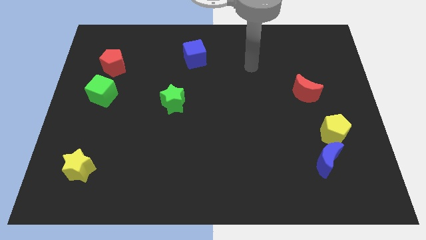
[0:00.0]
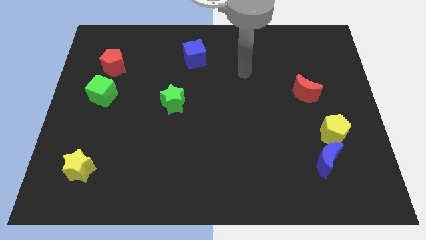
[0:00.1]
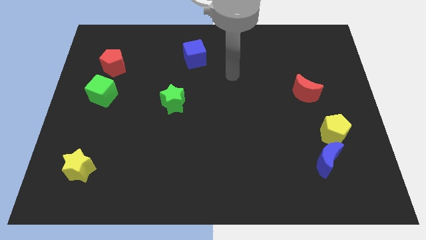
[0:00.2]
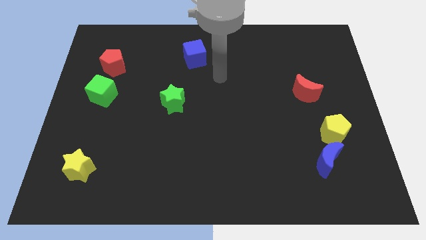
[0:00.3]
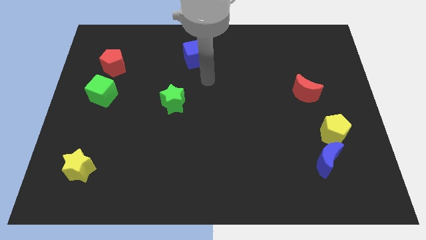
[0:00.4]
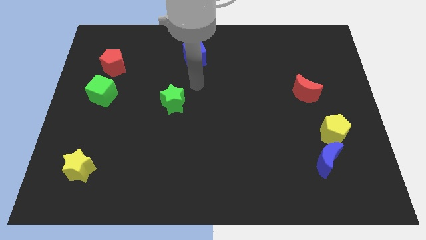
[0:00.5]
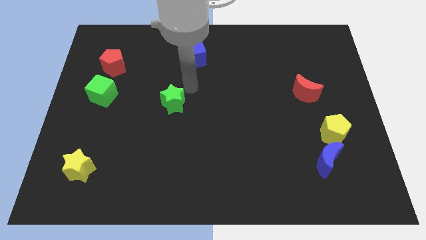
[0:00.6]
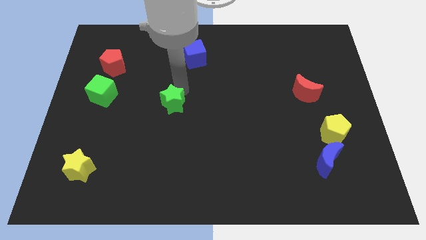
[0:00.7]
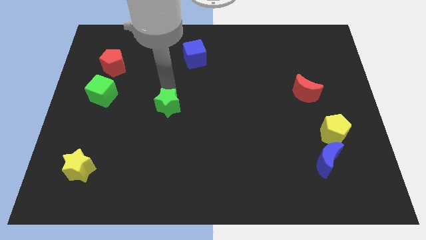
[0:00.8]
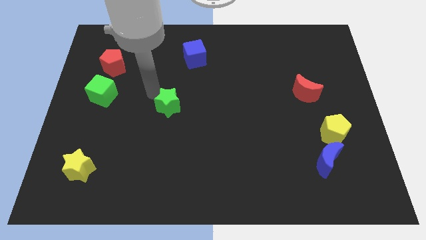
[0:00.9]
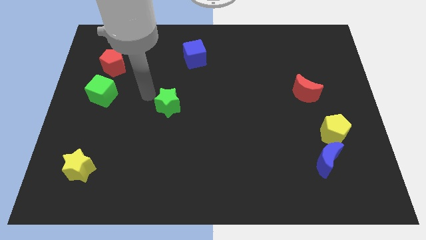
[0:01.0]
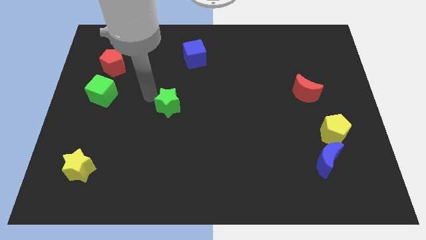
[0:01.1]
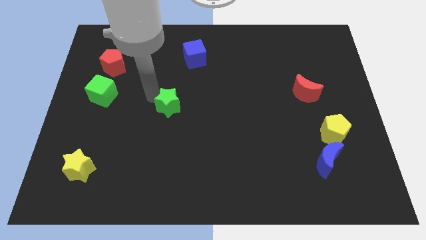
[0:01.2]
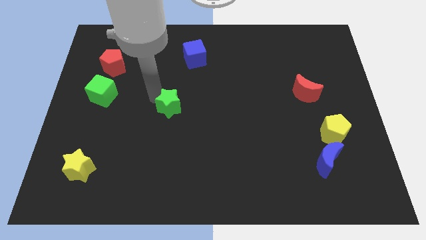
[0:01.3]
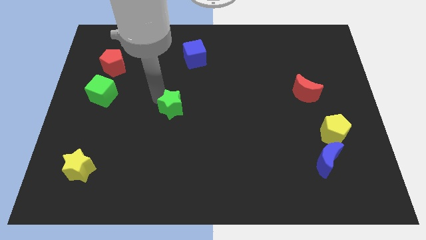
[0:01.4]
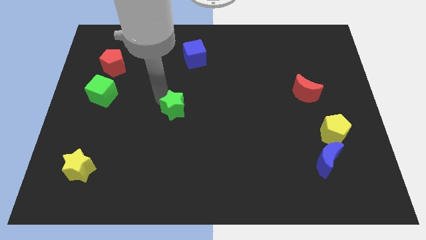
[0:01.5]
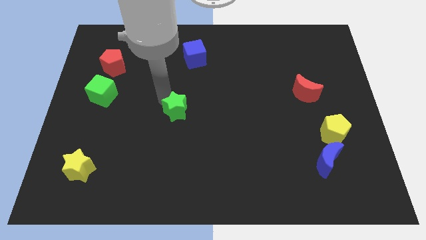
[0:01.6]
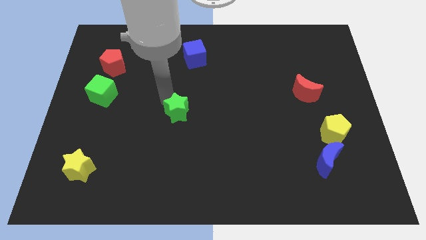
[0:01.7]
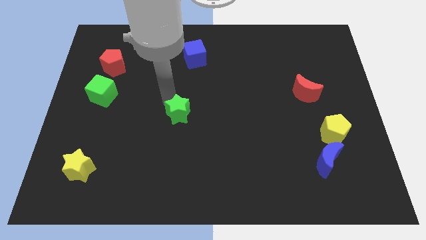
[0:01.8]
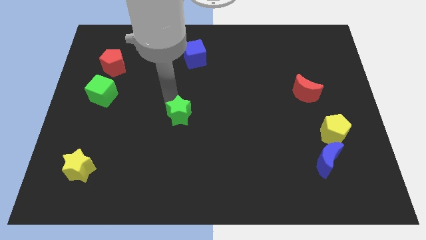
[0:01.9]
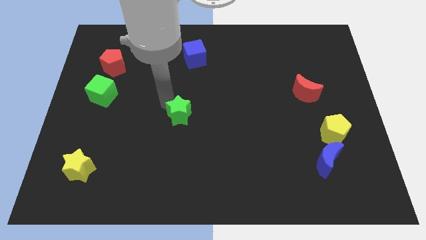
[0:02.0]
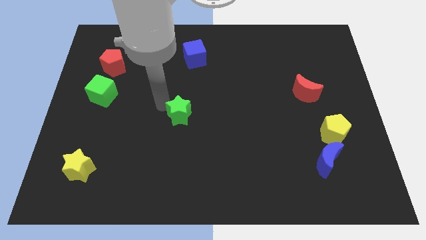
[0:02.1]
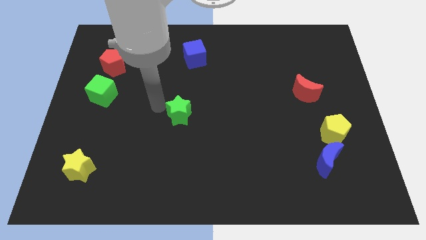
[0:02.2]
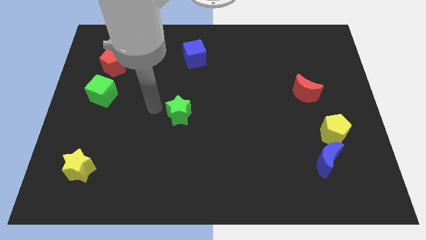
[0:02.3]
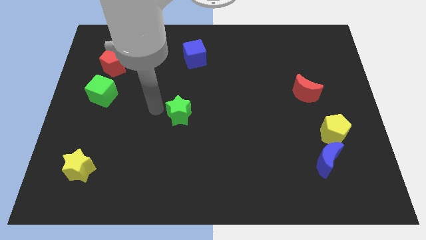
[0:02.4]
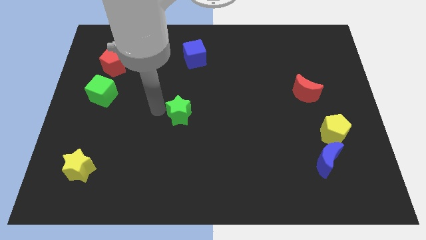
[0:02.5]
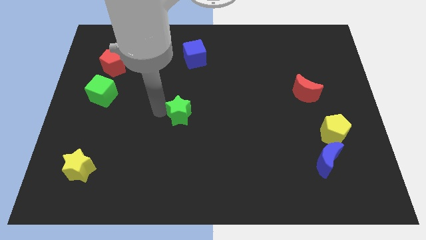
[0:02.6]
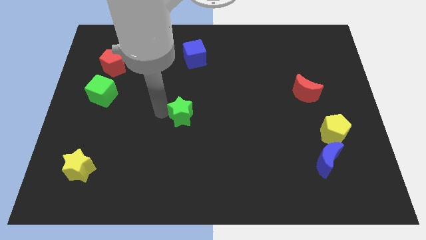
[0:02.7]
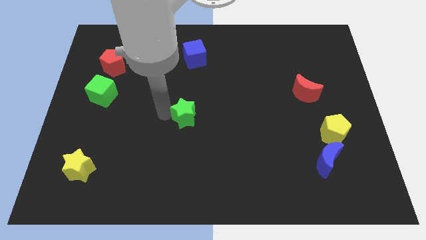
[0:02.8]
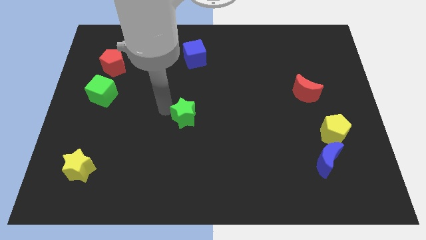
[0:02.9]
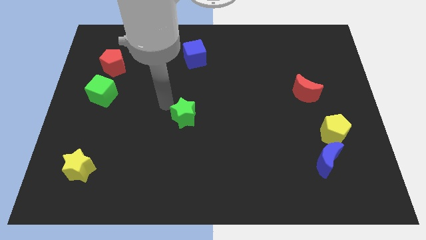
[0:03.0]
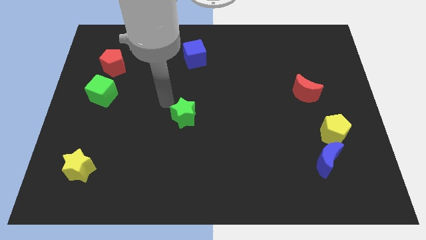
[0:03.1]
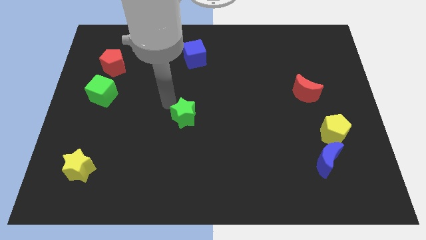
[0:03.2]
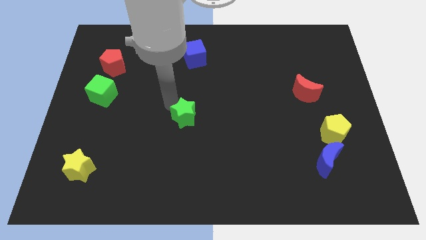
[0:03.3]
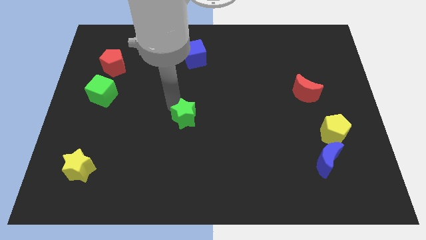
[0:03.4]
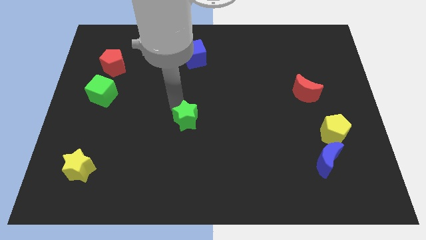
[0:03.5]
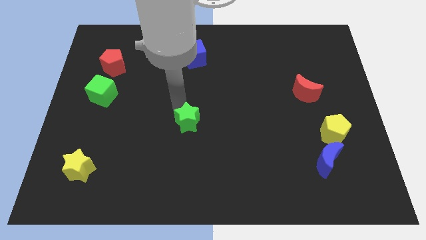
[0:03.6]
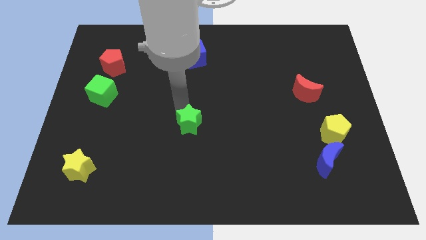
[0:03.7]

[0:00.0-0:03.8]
slightly move the green star downwards and to the right diagonally

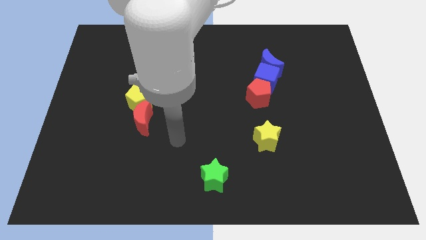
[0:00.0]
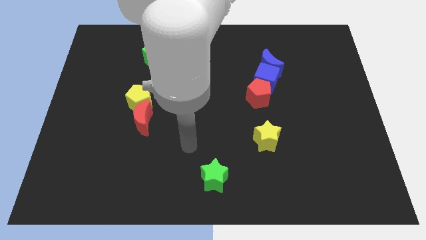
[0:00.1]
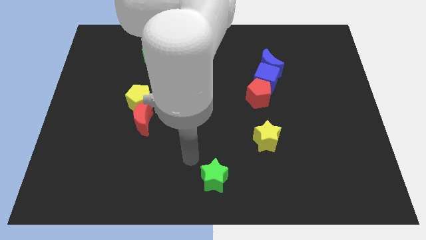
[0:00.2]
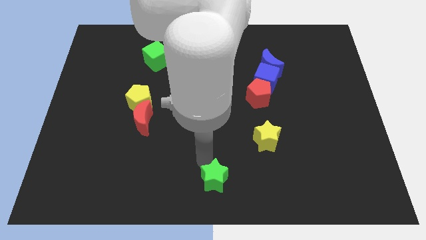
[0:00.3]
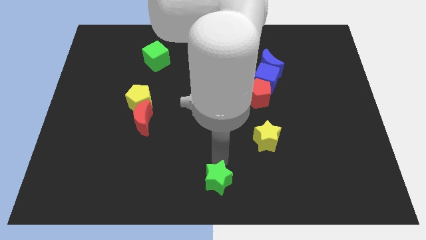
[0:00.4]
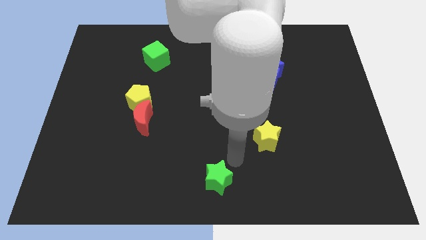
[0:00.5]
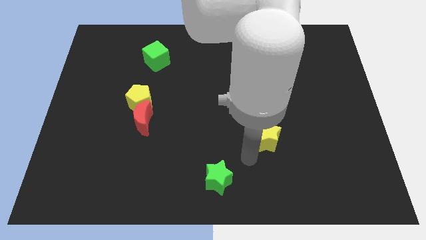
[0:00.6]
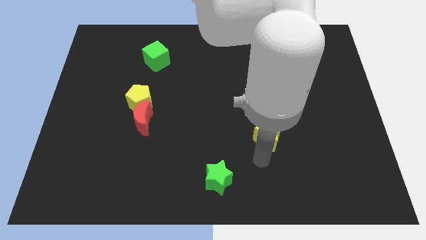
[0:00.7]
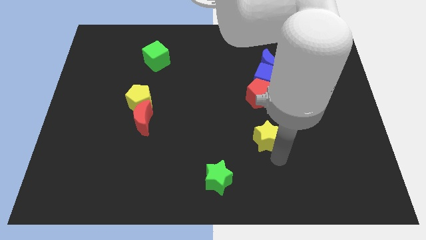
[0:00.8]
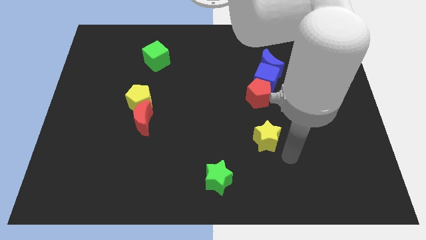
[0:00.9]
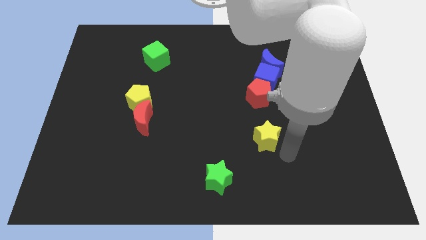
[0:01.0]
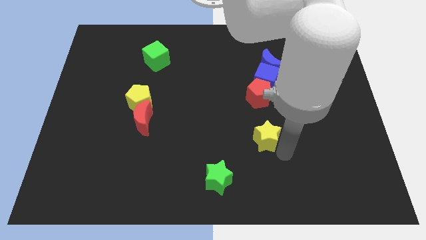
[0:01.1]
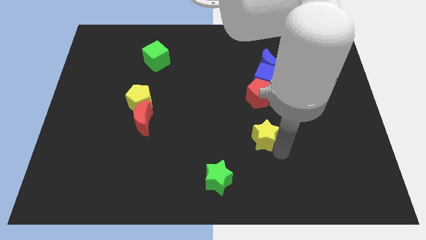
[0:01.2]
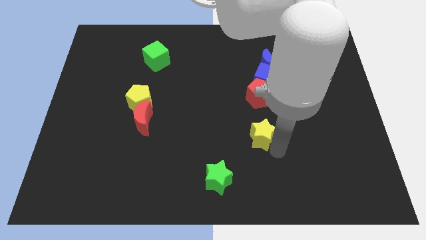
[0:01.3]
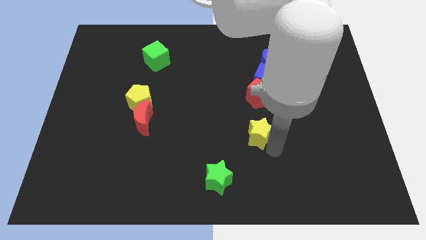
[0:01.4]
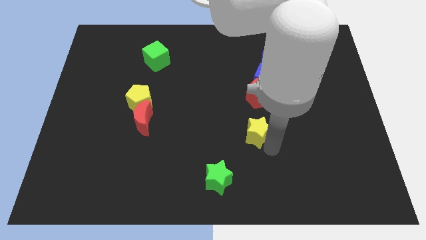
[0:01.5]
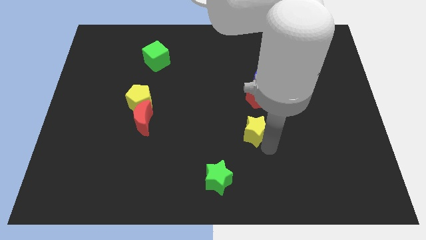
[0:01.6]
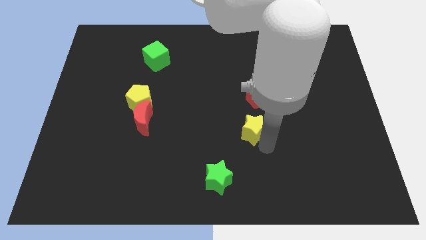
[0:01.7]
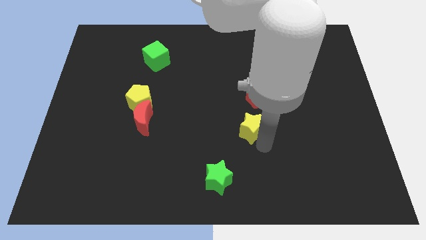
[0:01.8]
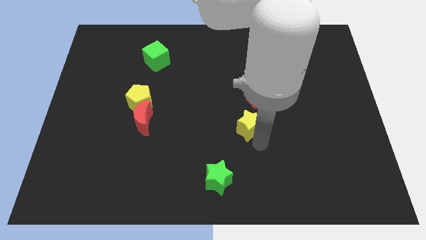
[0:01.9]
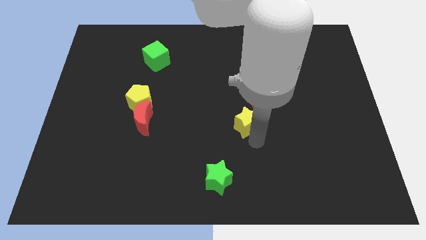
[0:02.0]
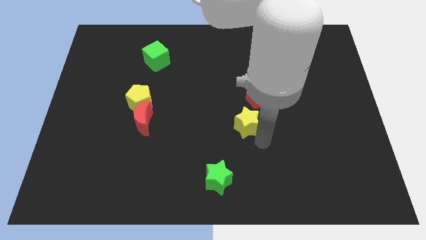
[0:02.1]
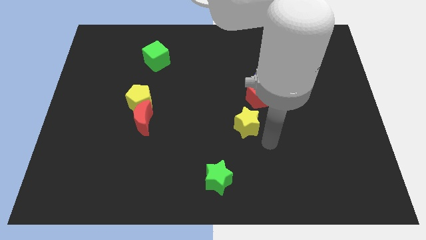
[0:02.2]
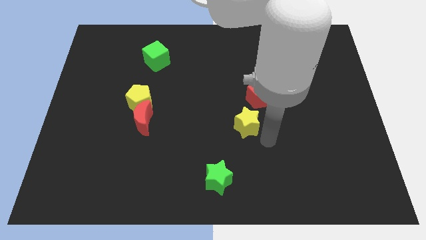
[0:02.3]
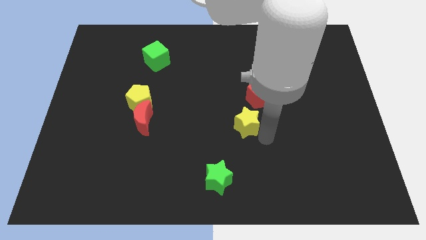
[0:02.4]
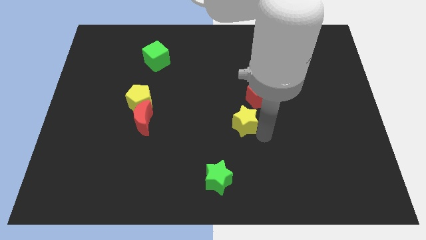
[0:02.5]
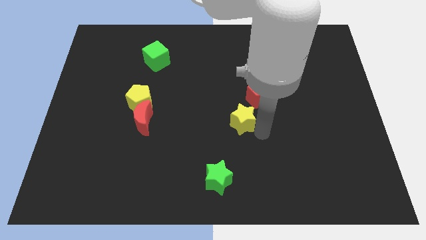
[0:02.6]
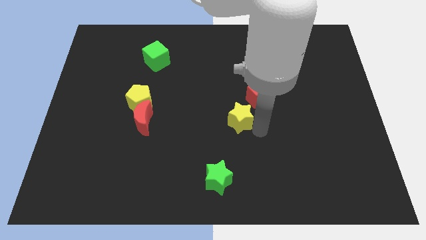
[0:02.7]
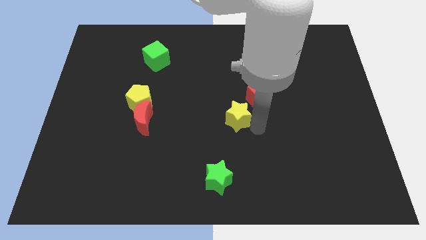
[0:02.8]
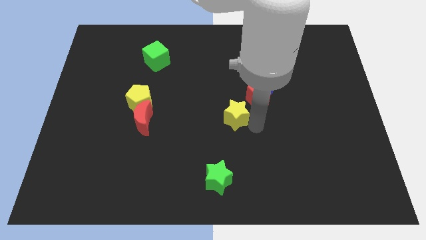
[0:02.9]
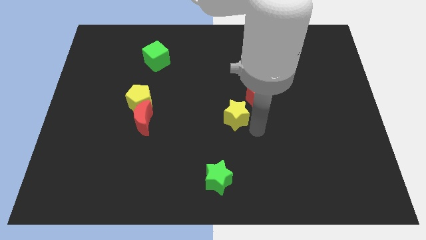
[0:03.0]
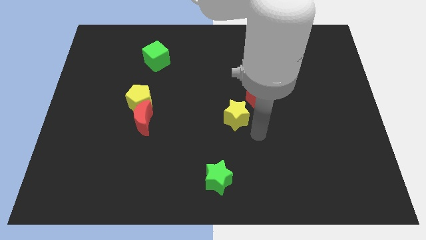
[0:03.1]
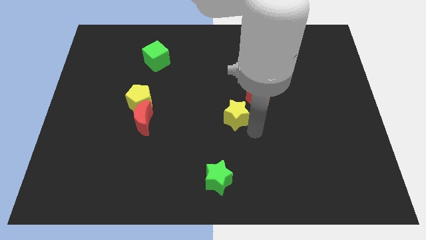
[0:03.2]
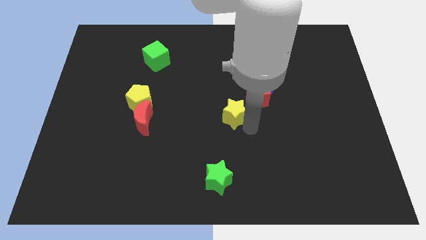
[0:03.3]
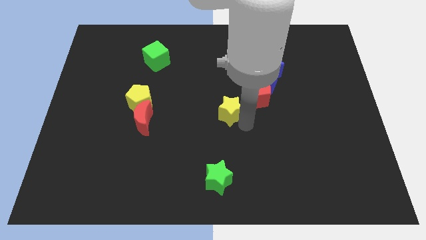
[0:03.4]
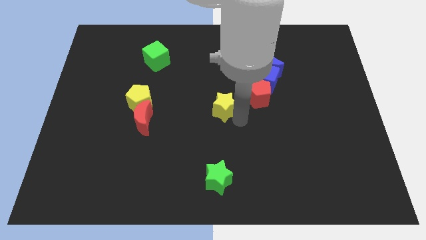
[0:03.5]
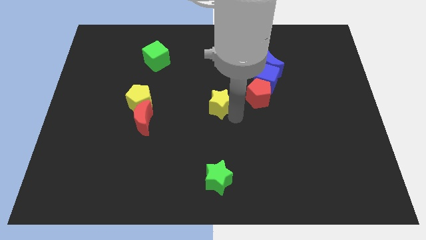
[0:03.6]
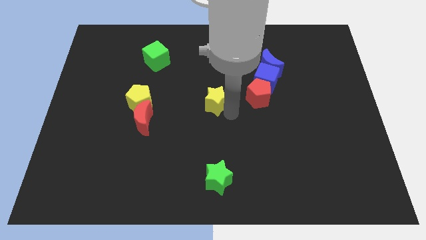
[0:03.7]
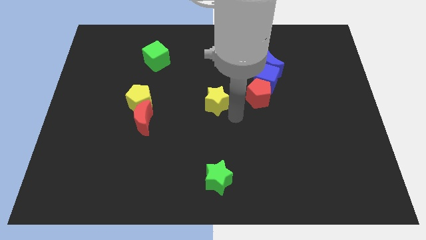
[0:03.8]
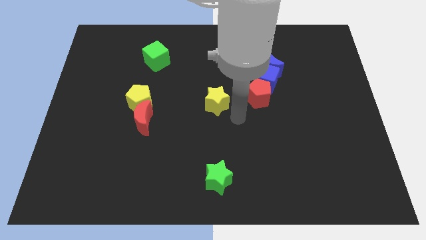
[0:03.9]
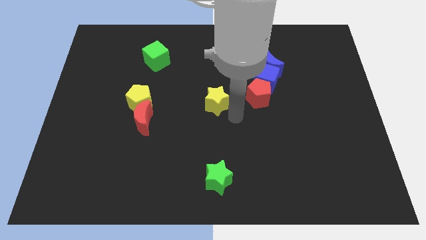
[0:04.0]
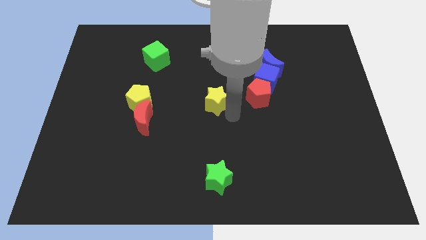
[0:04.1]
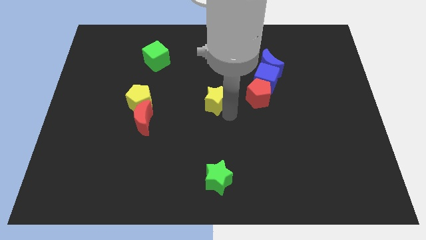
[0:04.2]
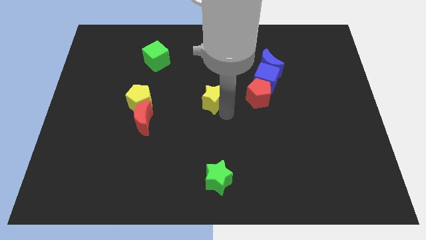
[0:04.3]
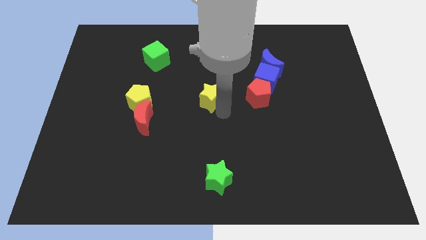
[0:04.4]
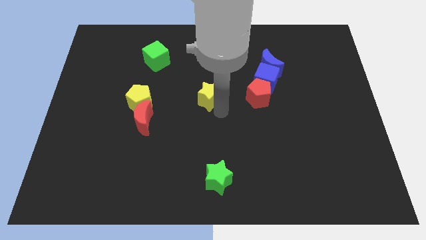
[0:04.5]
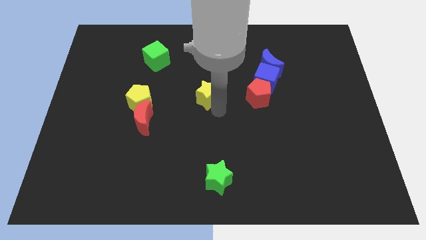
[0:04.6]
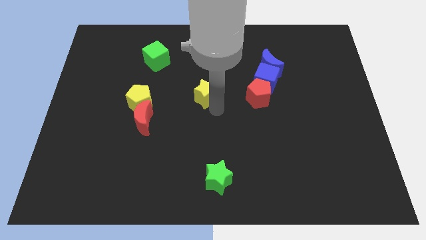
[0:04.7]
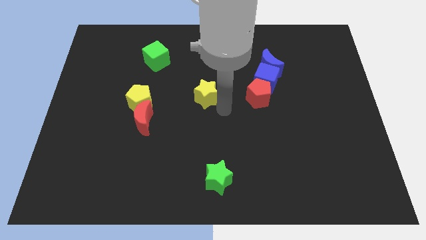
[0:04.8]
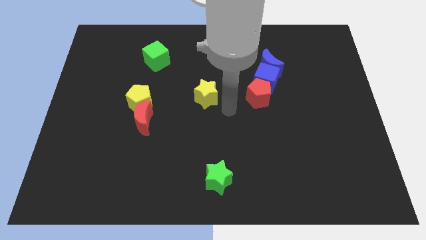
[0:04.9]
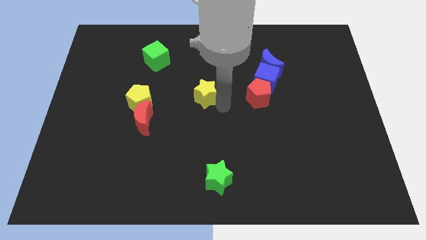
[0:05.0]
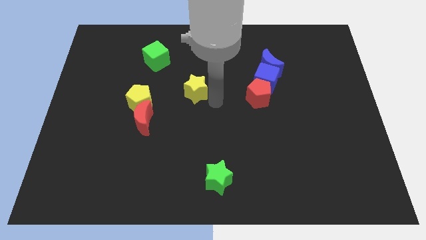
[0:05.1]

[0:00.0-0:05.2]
push the yellow star up and left
